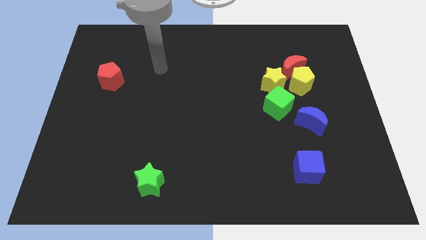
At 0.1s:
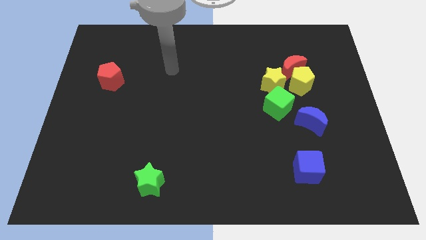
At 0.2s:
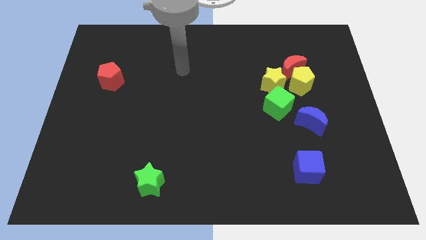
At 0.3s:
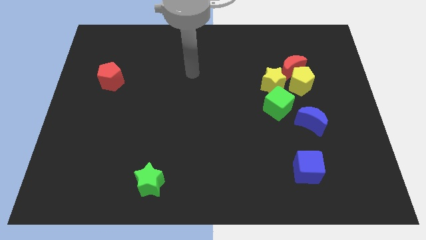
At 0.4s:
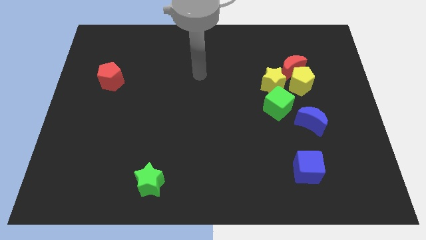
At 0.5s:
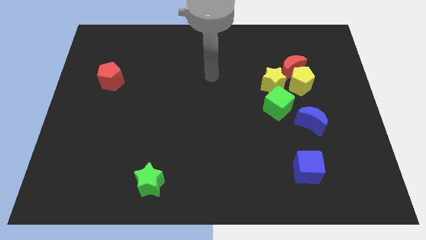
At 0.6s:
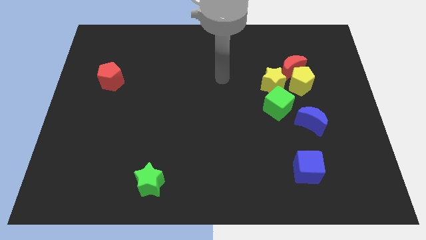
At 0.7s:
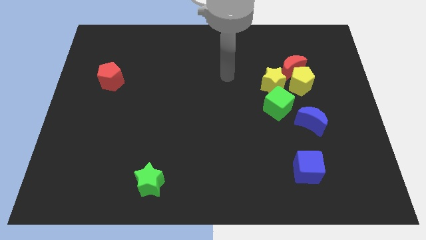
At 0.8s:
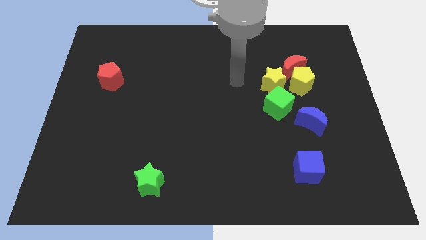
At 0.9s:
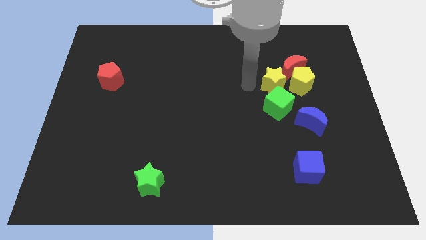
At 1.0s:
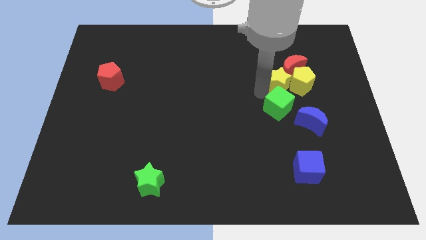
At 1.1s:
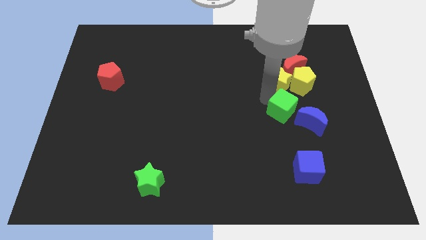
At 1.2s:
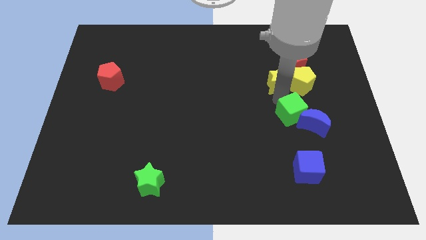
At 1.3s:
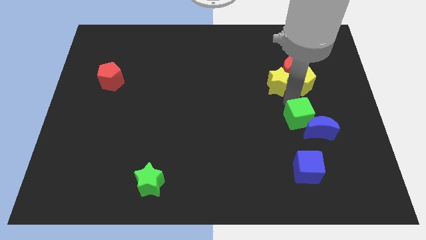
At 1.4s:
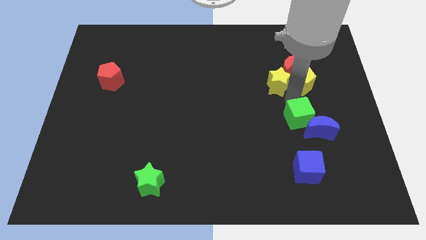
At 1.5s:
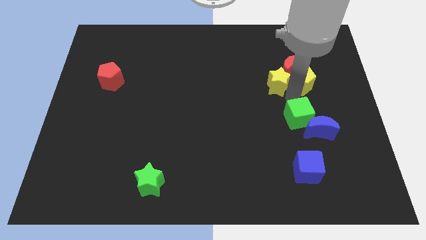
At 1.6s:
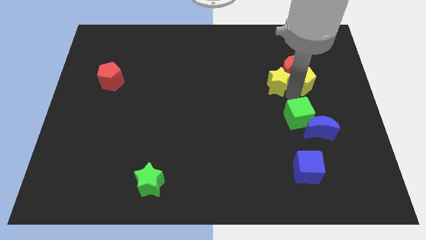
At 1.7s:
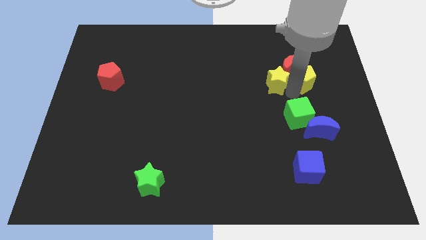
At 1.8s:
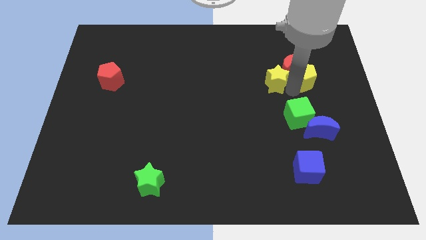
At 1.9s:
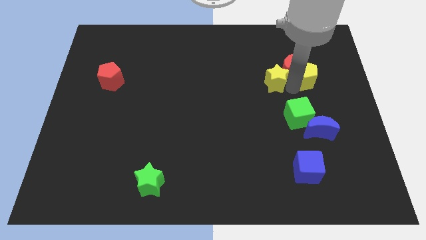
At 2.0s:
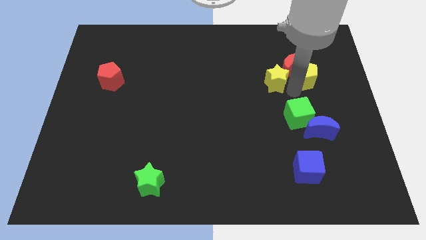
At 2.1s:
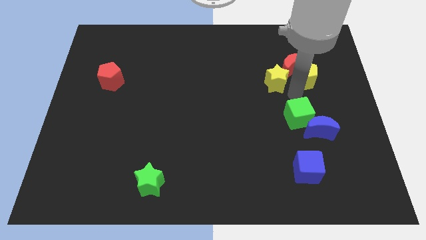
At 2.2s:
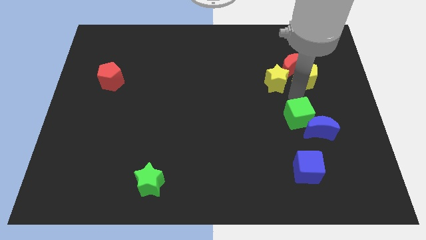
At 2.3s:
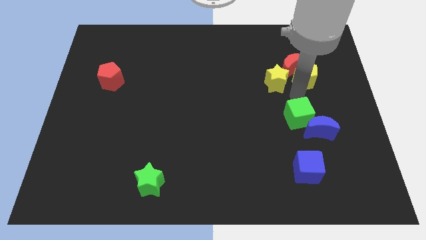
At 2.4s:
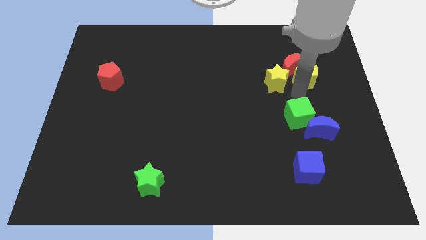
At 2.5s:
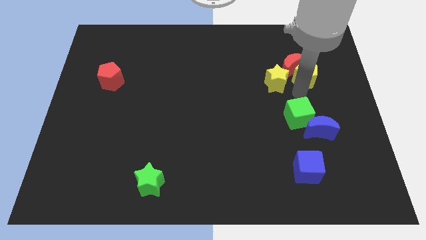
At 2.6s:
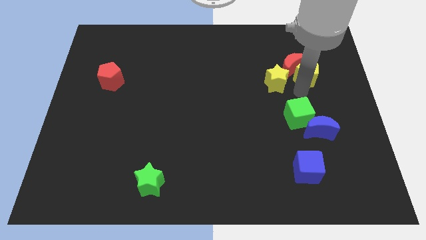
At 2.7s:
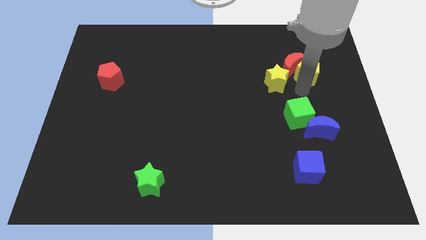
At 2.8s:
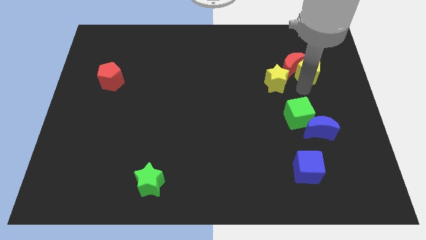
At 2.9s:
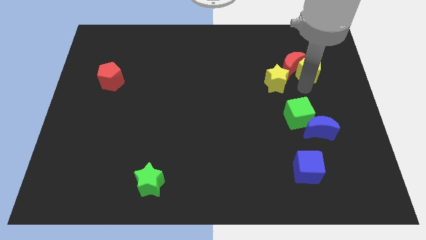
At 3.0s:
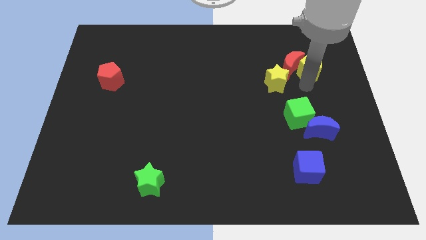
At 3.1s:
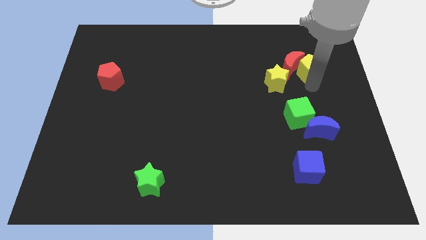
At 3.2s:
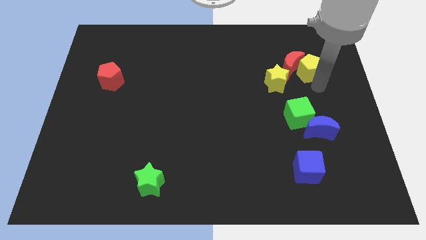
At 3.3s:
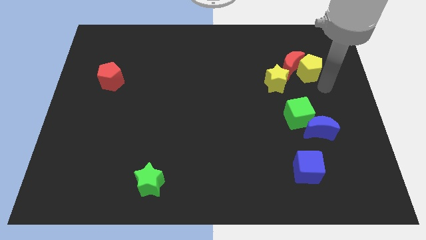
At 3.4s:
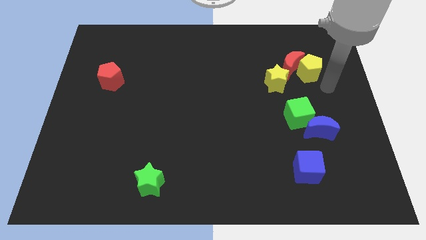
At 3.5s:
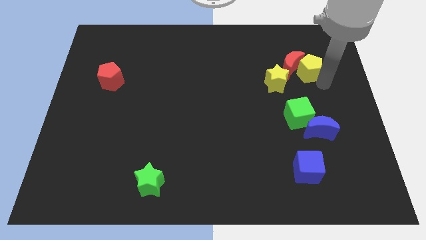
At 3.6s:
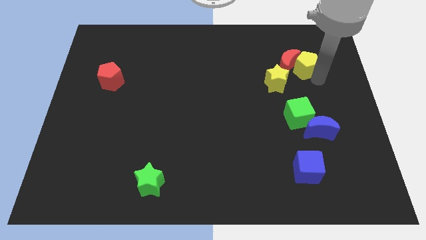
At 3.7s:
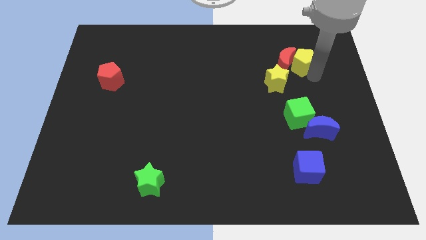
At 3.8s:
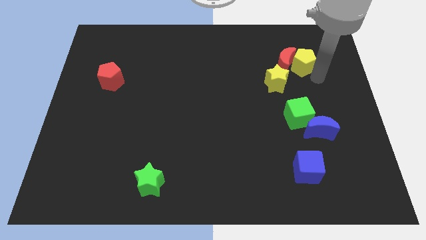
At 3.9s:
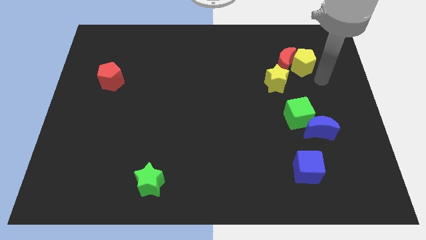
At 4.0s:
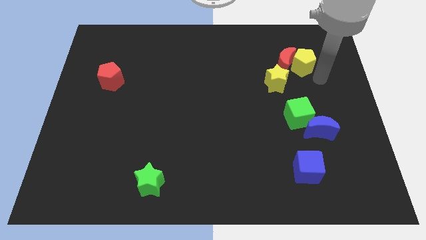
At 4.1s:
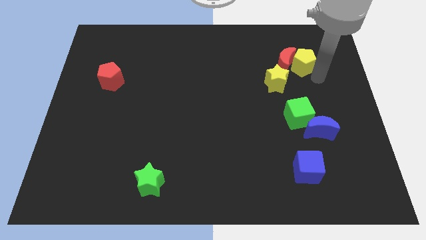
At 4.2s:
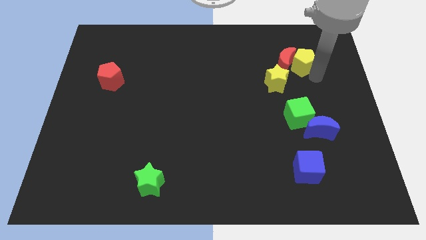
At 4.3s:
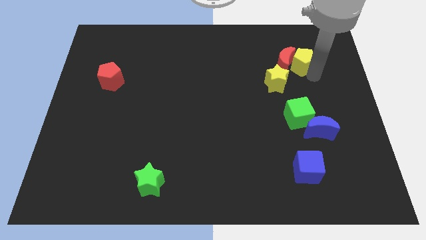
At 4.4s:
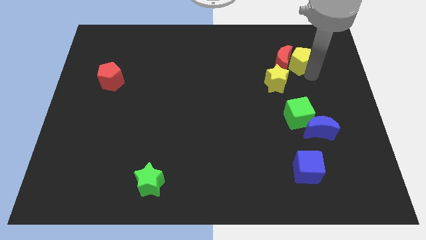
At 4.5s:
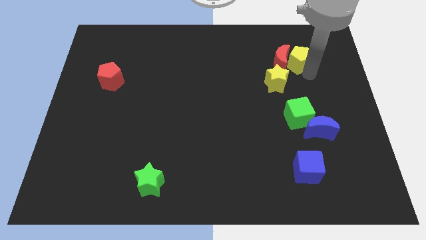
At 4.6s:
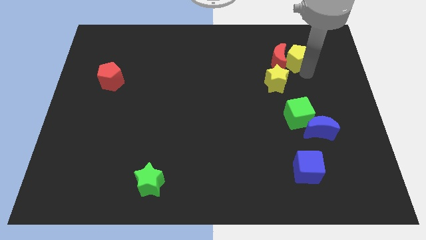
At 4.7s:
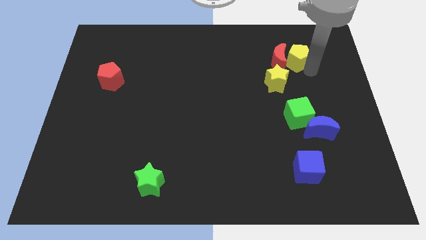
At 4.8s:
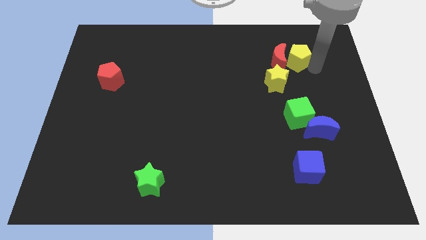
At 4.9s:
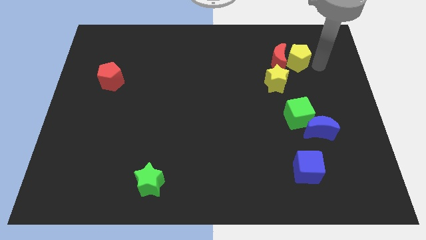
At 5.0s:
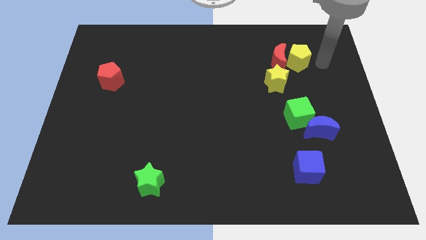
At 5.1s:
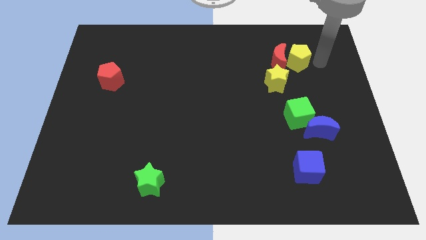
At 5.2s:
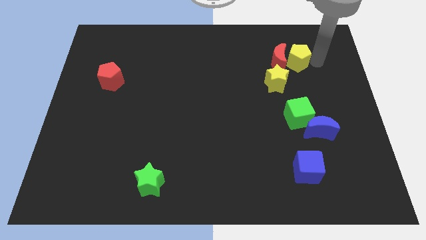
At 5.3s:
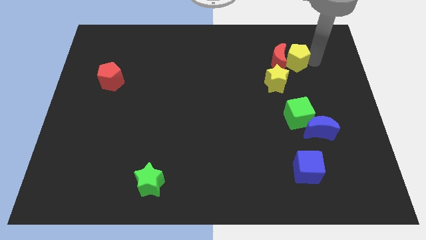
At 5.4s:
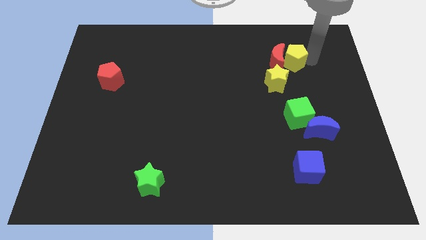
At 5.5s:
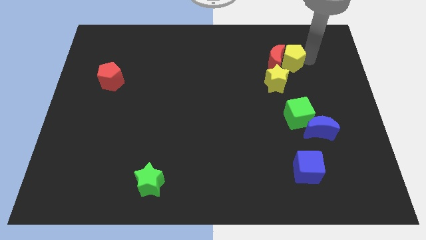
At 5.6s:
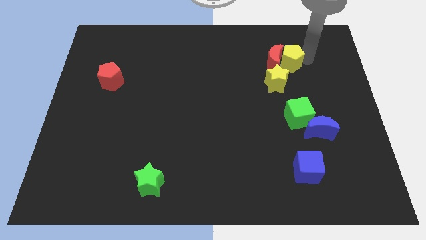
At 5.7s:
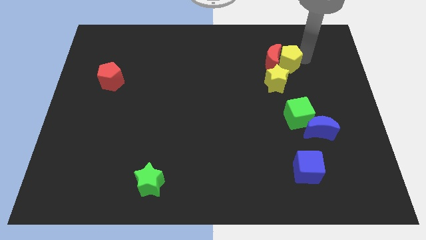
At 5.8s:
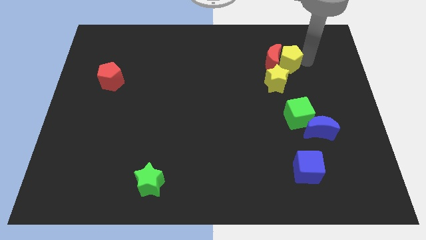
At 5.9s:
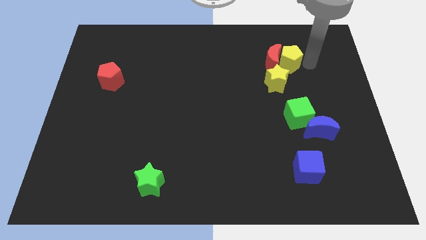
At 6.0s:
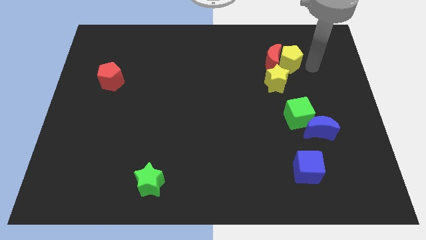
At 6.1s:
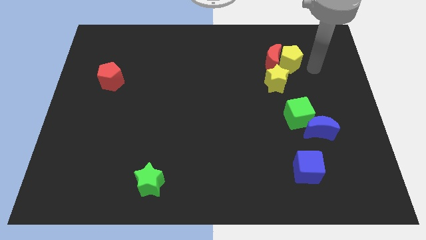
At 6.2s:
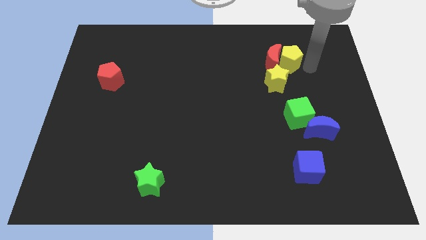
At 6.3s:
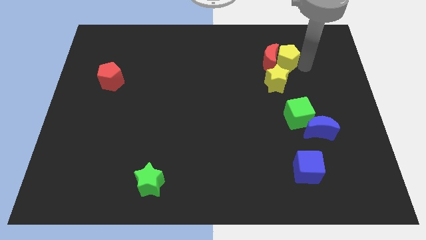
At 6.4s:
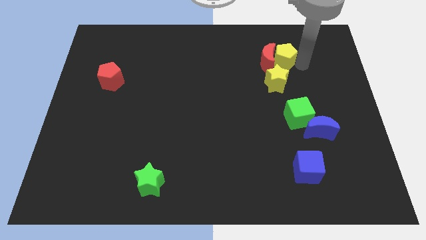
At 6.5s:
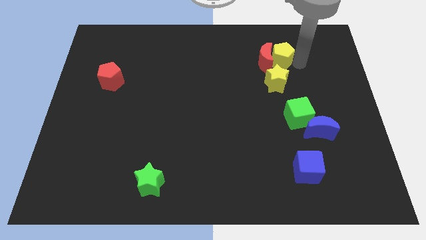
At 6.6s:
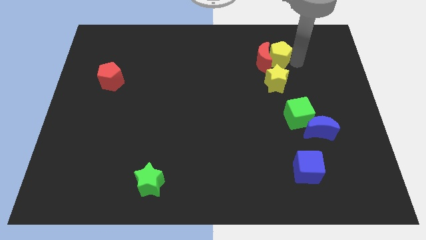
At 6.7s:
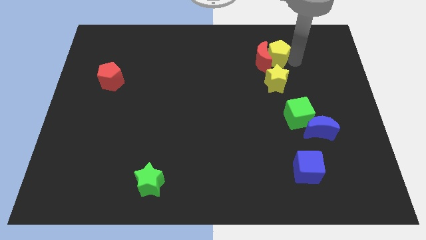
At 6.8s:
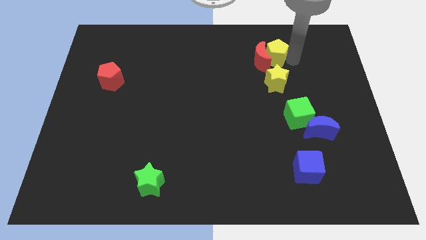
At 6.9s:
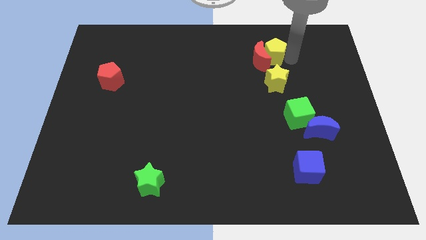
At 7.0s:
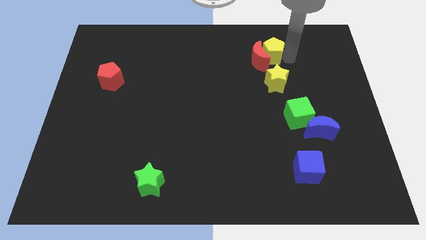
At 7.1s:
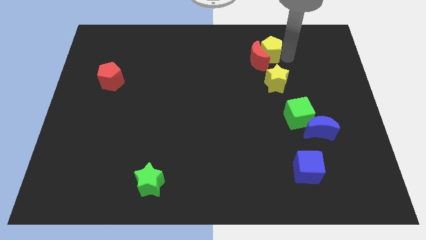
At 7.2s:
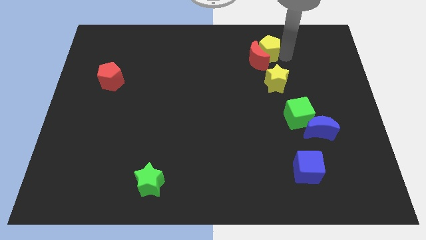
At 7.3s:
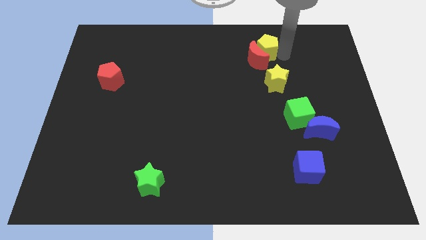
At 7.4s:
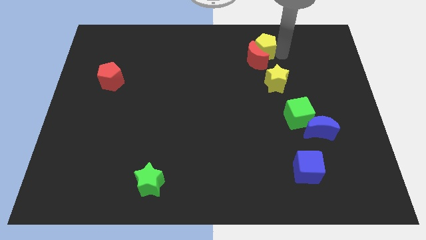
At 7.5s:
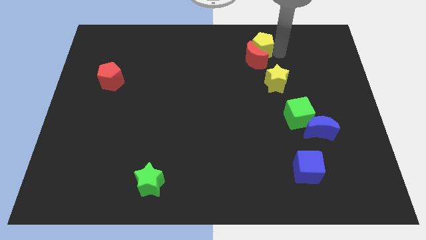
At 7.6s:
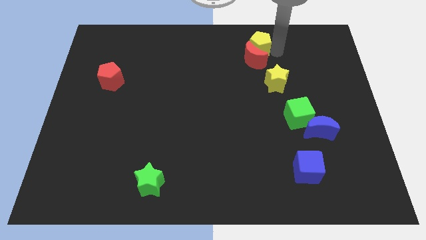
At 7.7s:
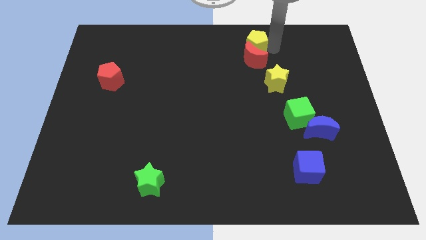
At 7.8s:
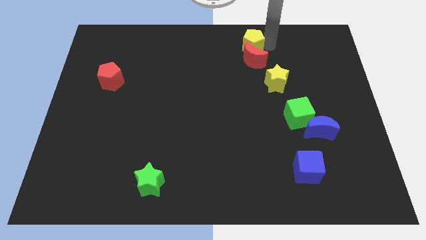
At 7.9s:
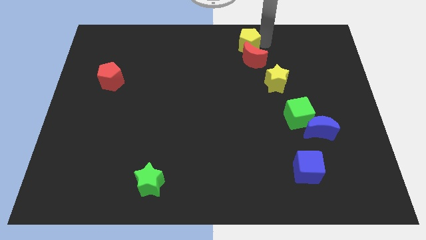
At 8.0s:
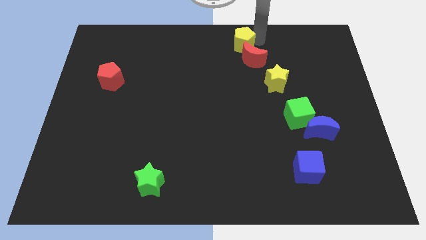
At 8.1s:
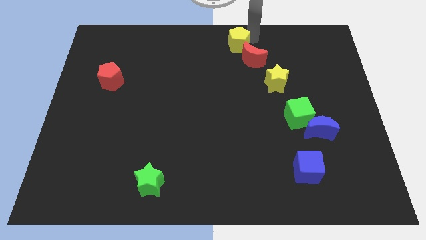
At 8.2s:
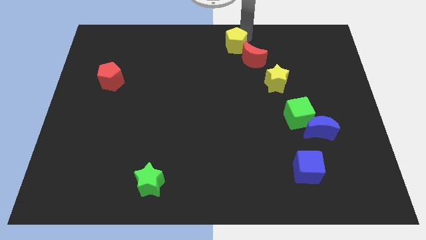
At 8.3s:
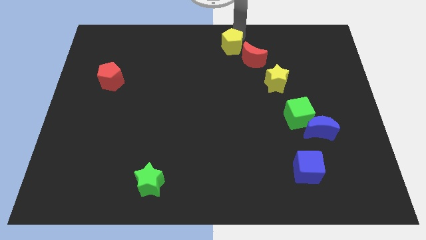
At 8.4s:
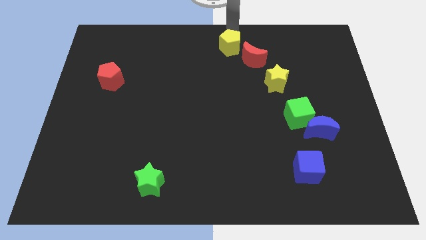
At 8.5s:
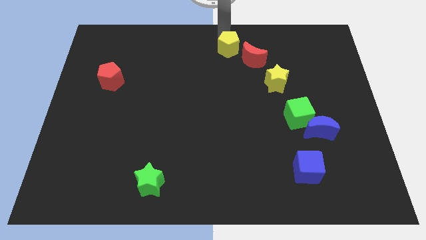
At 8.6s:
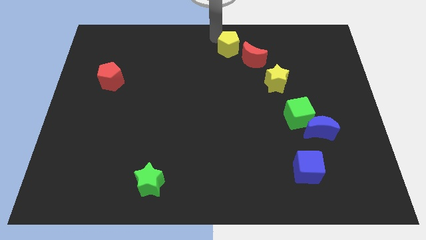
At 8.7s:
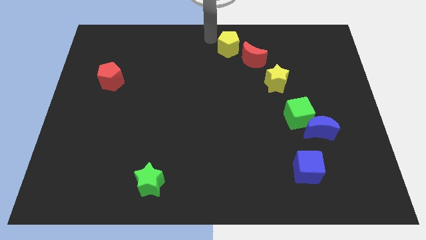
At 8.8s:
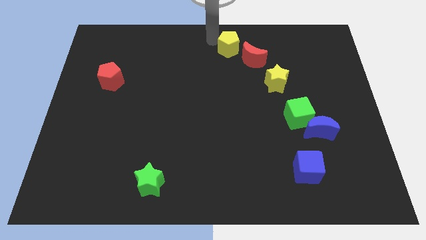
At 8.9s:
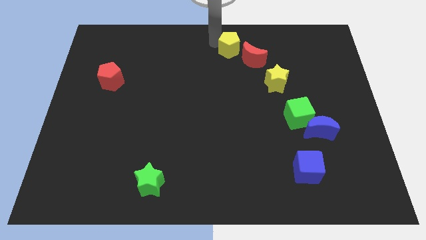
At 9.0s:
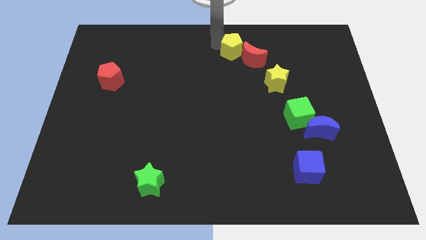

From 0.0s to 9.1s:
slightly slide the yellow pentagon left
